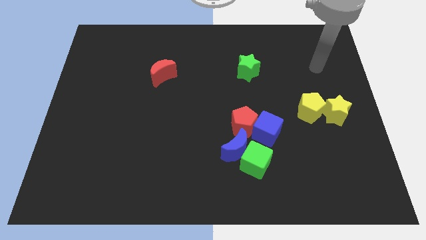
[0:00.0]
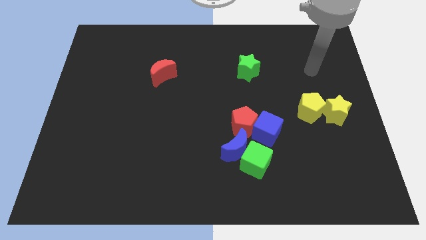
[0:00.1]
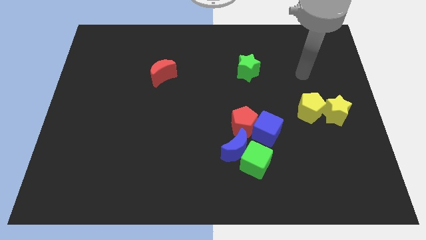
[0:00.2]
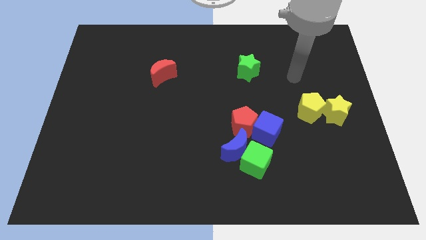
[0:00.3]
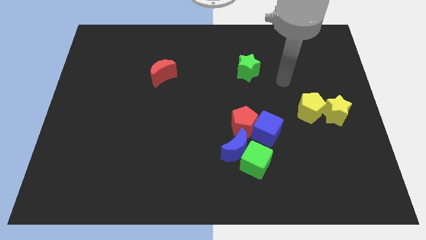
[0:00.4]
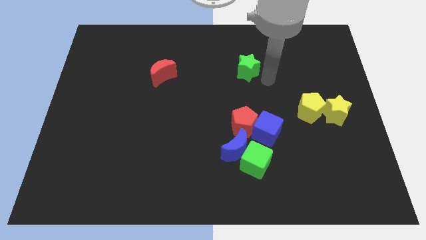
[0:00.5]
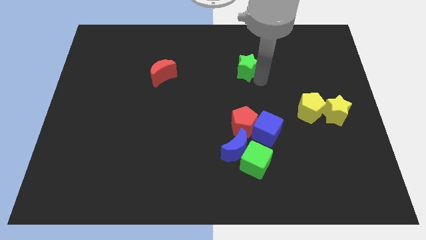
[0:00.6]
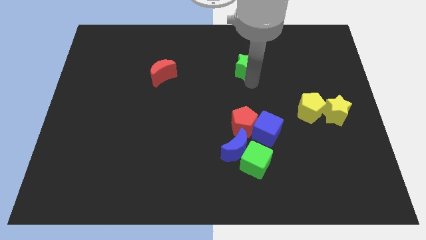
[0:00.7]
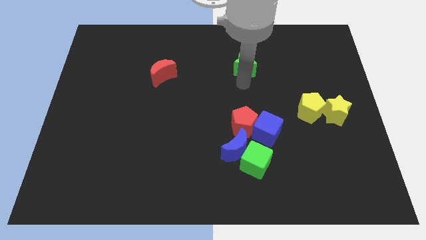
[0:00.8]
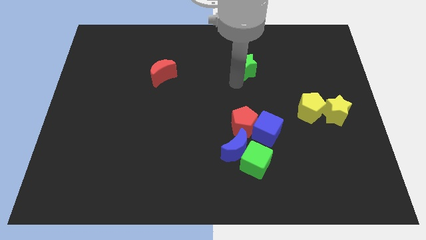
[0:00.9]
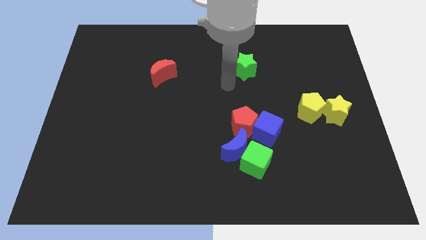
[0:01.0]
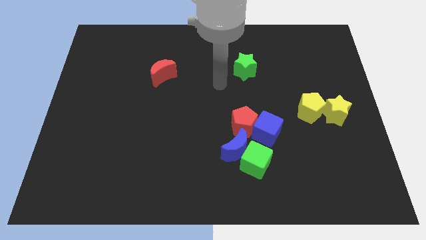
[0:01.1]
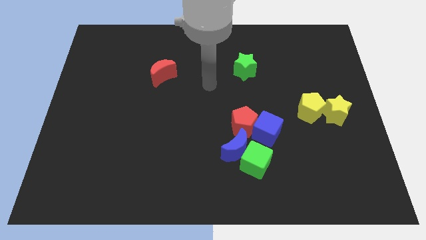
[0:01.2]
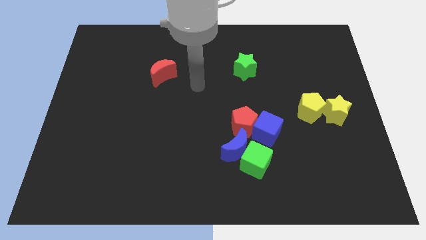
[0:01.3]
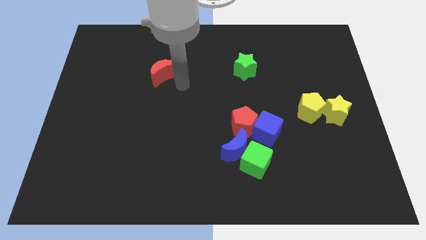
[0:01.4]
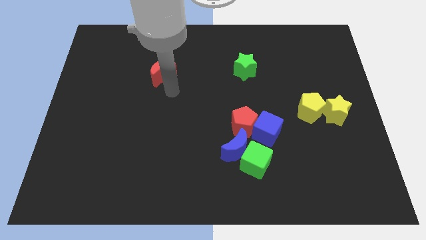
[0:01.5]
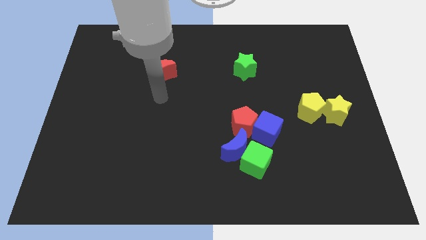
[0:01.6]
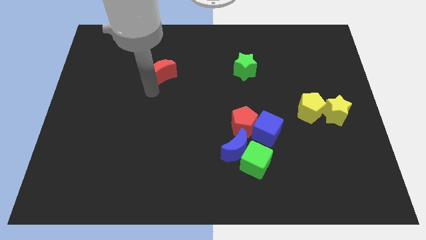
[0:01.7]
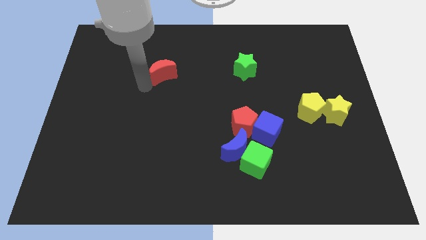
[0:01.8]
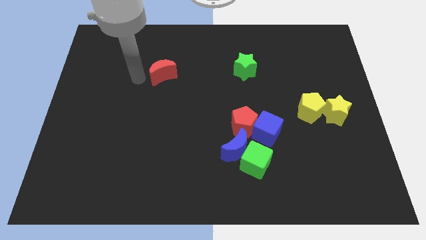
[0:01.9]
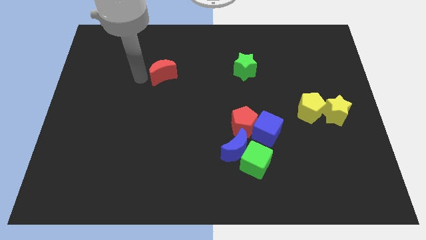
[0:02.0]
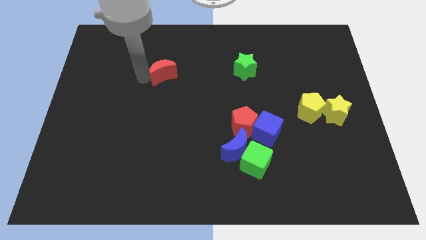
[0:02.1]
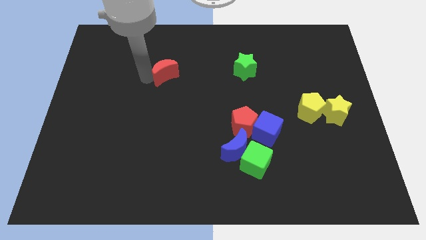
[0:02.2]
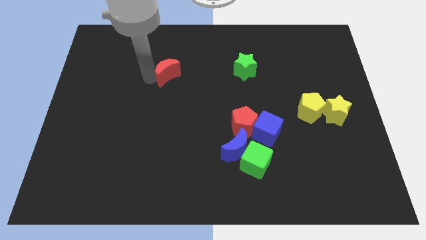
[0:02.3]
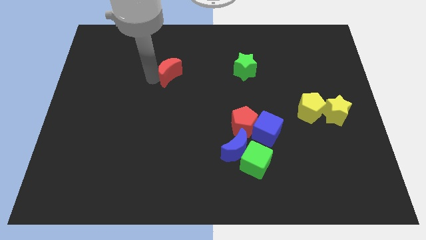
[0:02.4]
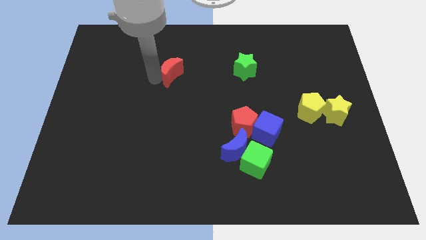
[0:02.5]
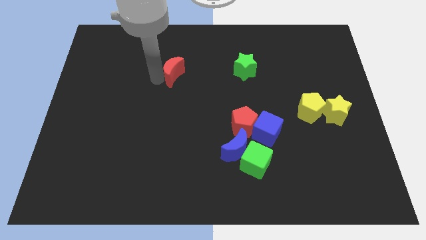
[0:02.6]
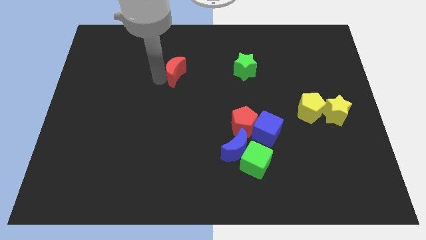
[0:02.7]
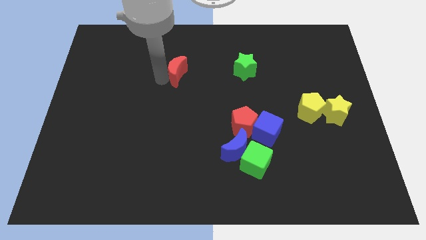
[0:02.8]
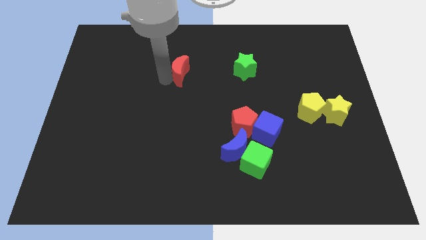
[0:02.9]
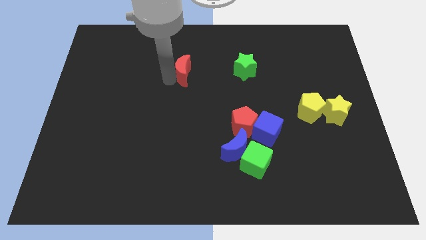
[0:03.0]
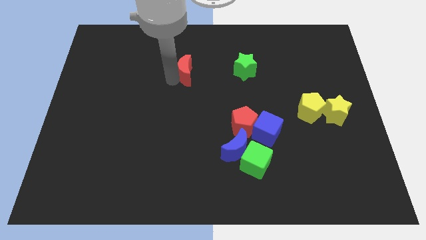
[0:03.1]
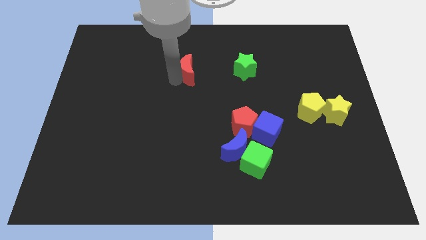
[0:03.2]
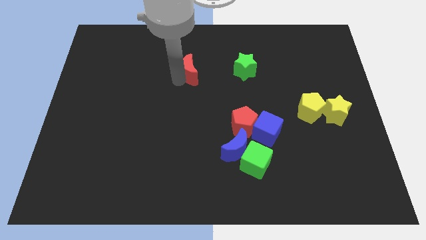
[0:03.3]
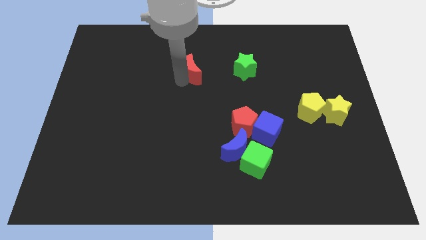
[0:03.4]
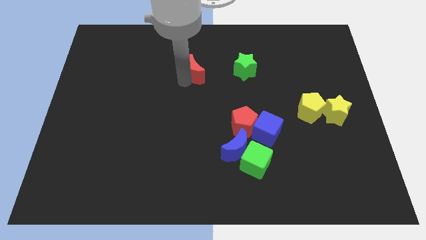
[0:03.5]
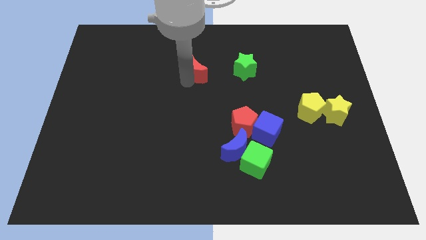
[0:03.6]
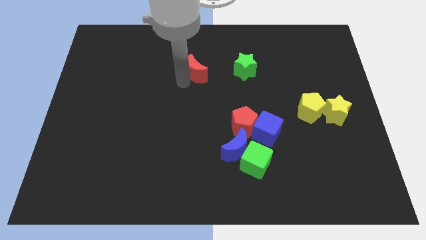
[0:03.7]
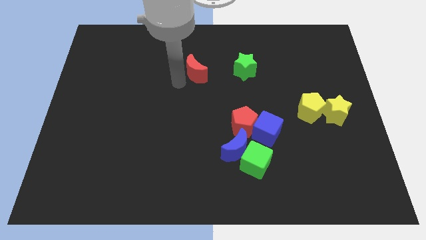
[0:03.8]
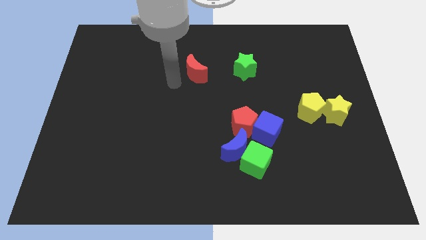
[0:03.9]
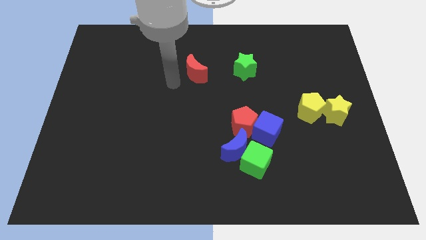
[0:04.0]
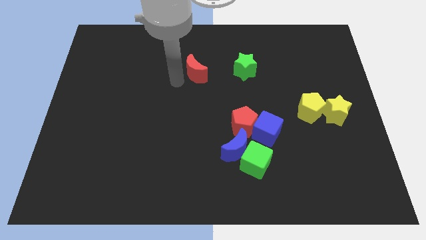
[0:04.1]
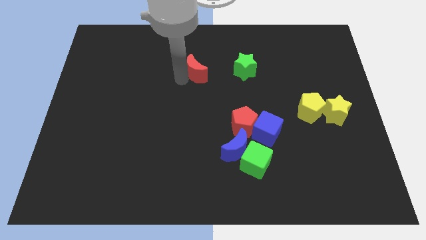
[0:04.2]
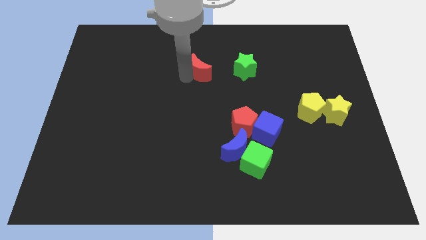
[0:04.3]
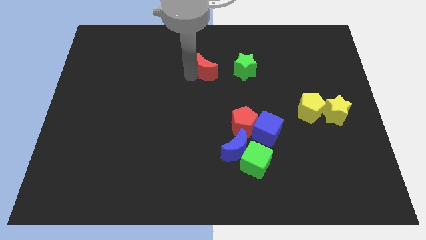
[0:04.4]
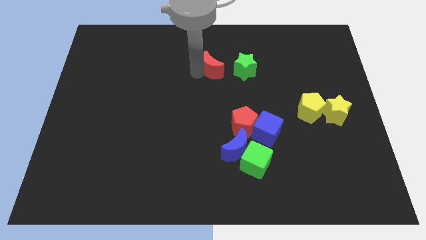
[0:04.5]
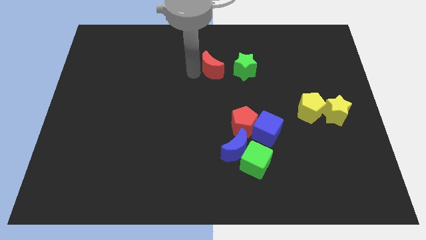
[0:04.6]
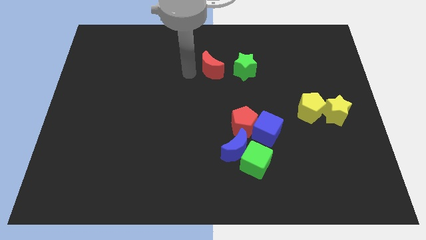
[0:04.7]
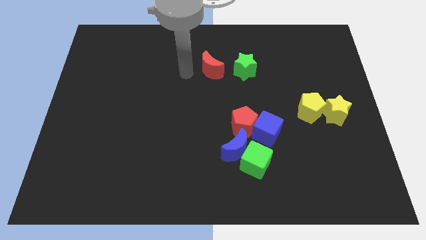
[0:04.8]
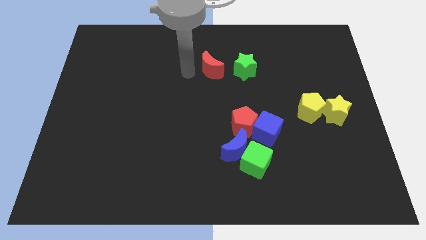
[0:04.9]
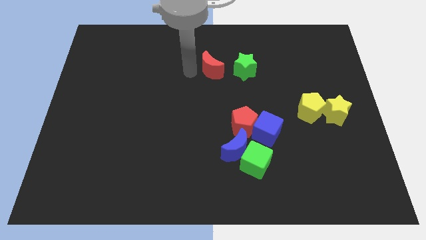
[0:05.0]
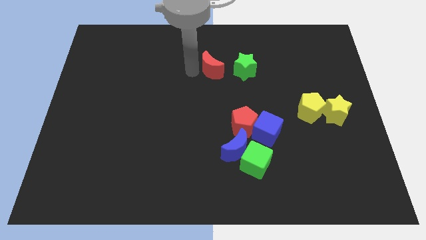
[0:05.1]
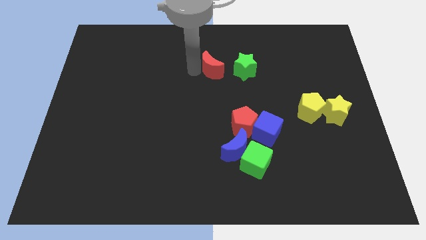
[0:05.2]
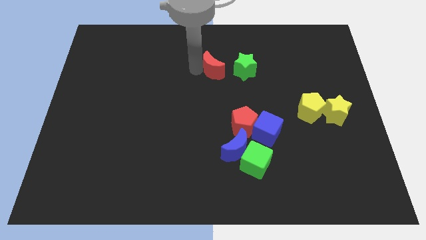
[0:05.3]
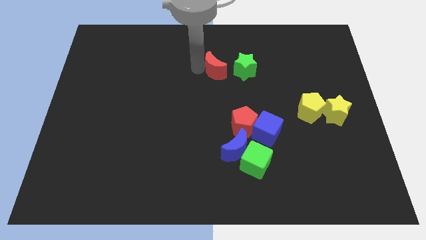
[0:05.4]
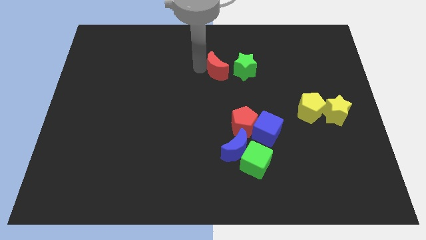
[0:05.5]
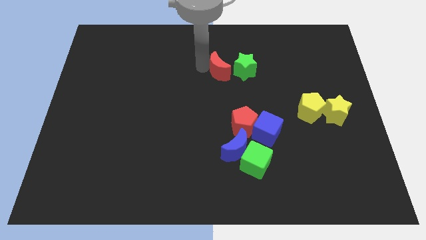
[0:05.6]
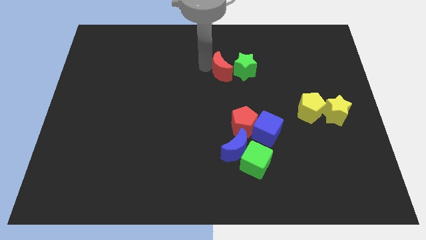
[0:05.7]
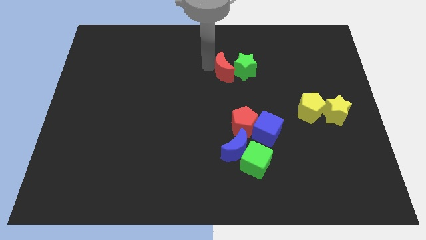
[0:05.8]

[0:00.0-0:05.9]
move the red moon to the green star
